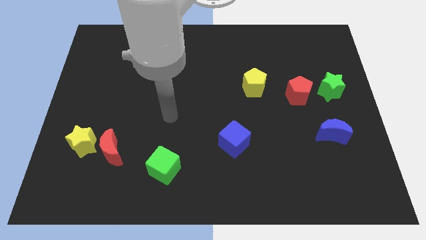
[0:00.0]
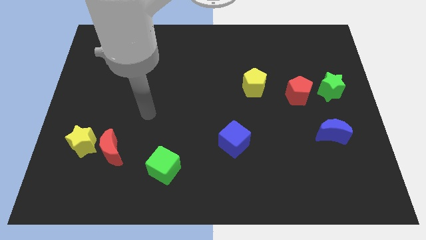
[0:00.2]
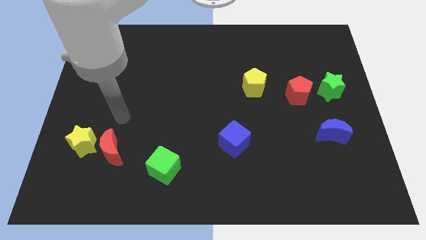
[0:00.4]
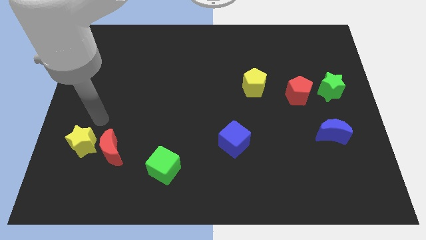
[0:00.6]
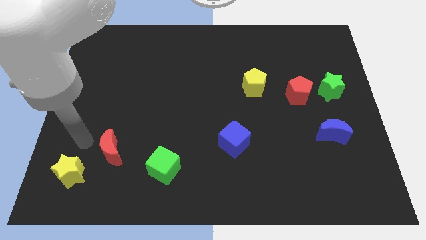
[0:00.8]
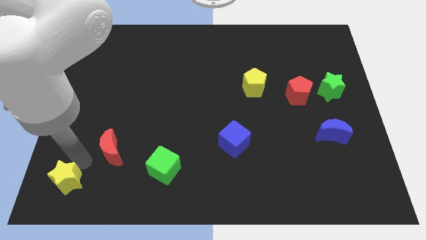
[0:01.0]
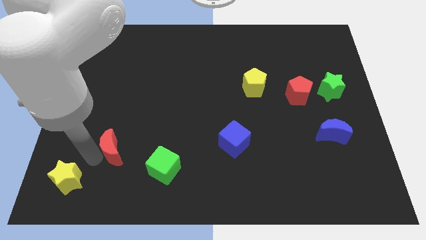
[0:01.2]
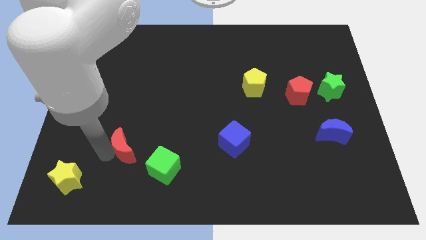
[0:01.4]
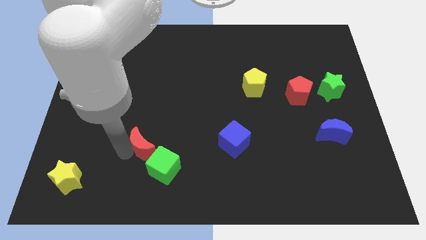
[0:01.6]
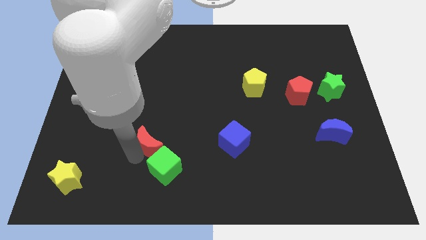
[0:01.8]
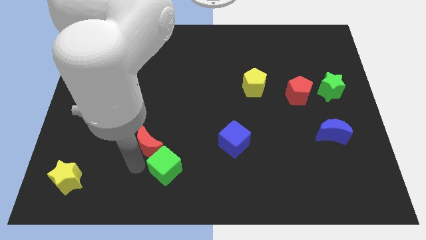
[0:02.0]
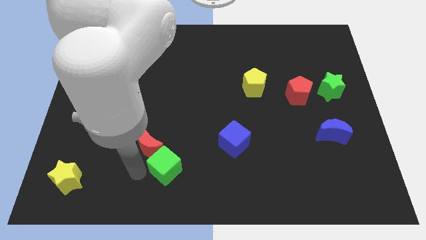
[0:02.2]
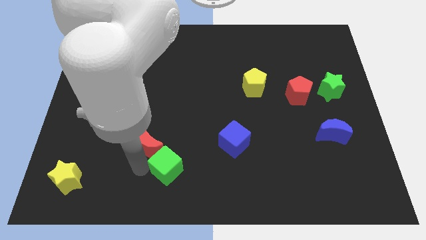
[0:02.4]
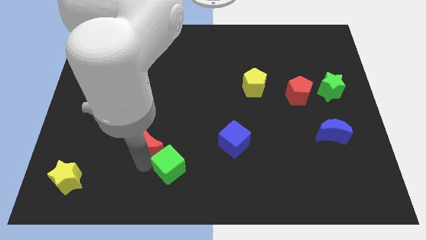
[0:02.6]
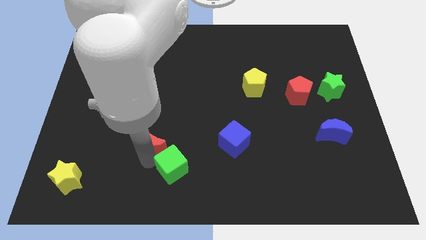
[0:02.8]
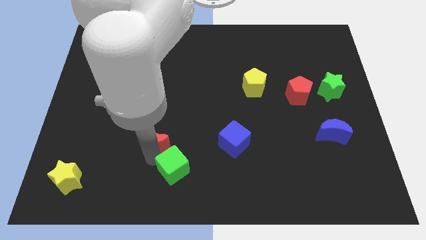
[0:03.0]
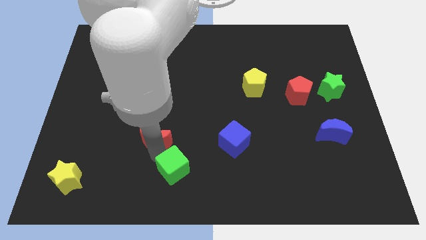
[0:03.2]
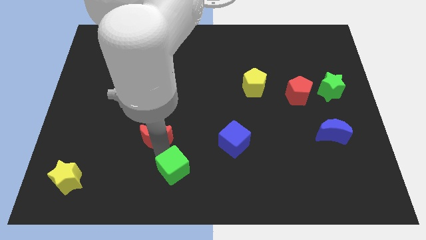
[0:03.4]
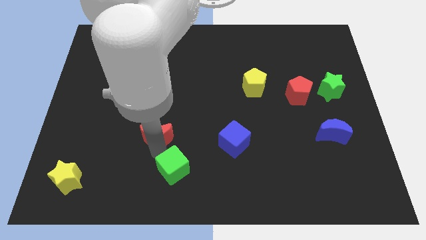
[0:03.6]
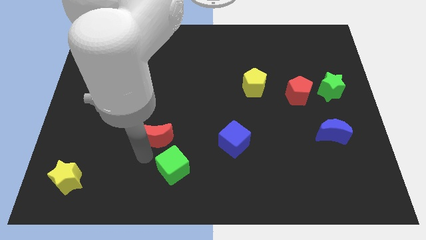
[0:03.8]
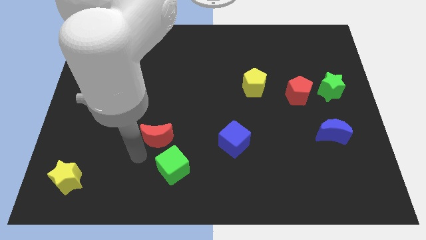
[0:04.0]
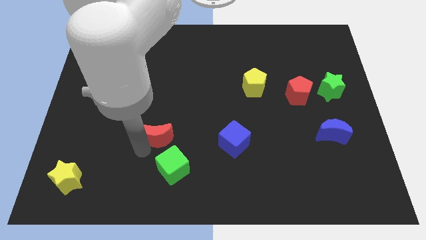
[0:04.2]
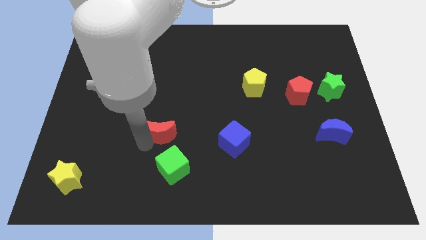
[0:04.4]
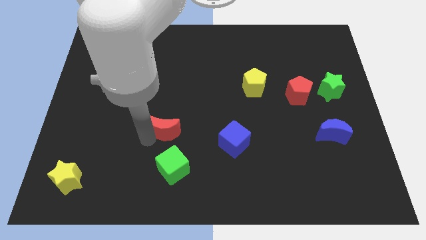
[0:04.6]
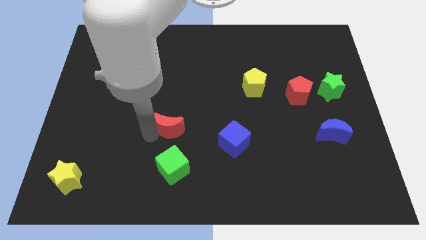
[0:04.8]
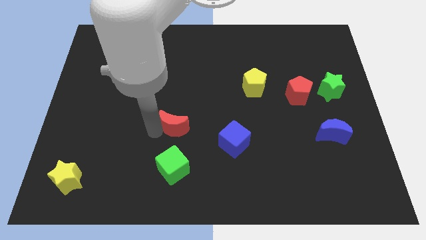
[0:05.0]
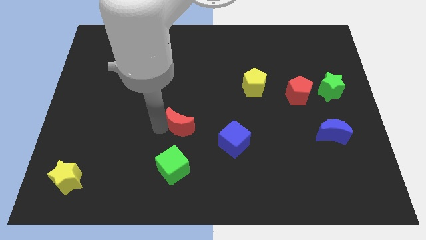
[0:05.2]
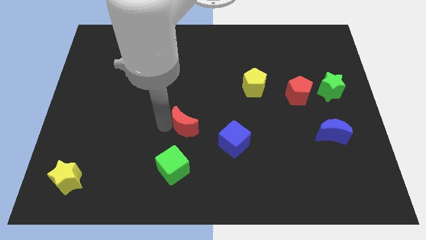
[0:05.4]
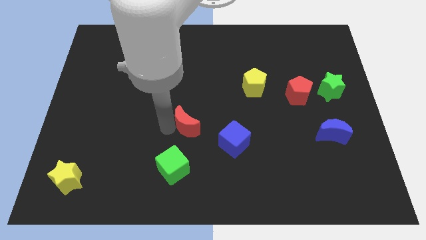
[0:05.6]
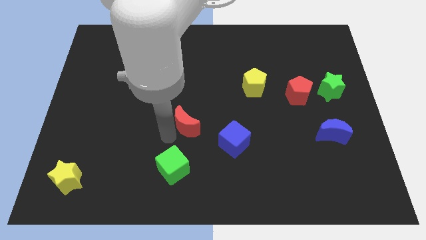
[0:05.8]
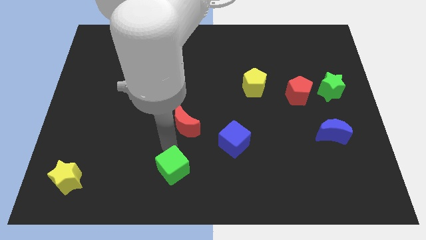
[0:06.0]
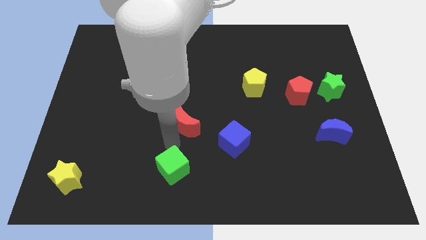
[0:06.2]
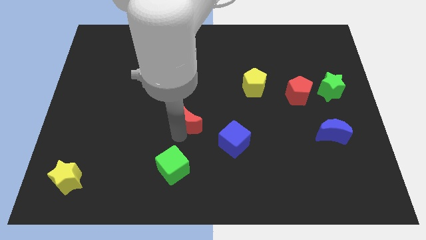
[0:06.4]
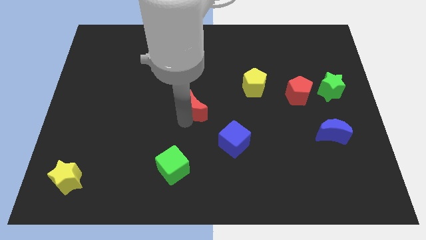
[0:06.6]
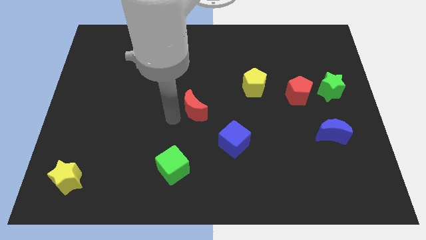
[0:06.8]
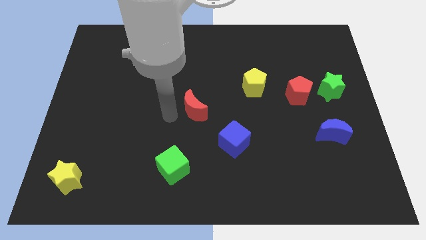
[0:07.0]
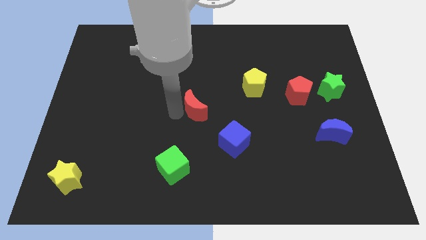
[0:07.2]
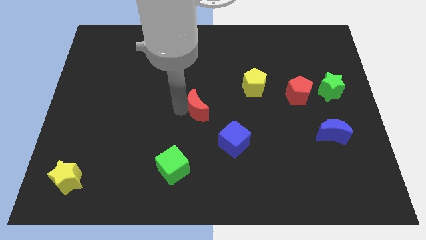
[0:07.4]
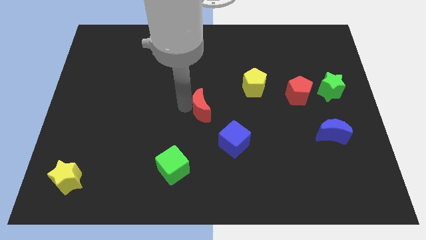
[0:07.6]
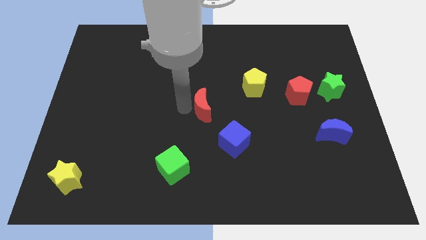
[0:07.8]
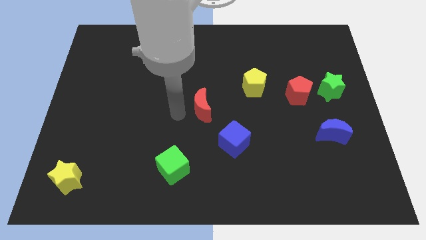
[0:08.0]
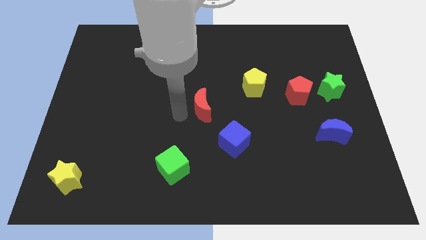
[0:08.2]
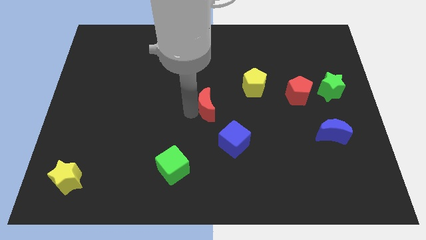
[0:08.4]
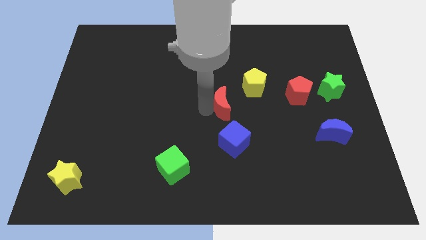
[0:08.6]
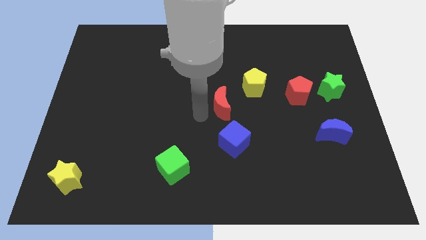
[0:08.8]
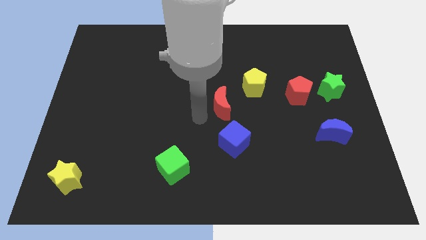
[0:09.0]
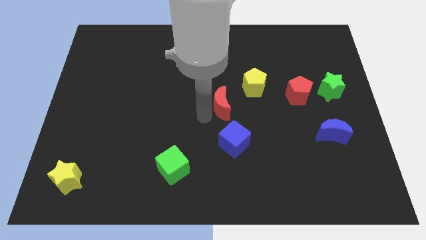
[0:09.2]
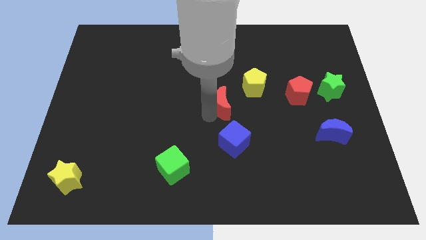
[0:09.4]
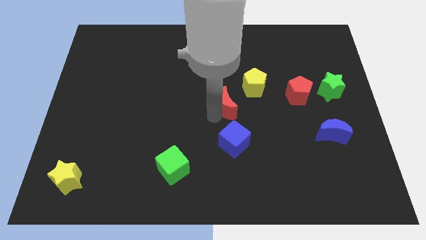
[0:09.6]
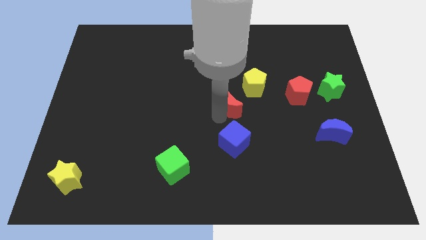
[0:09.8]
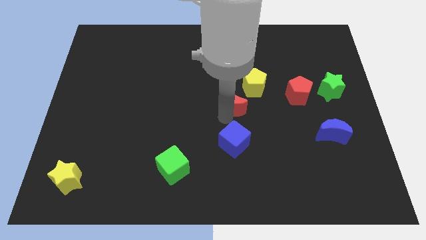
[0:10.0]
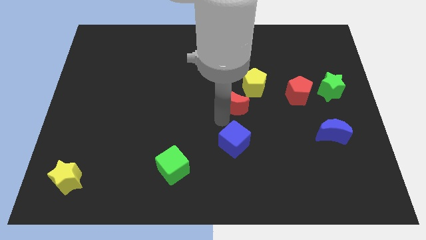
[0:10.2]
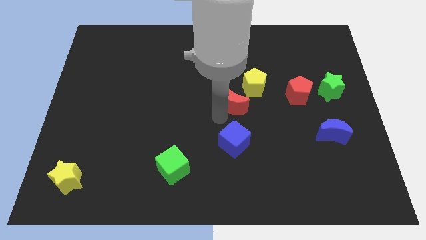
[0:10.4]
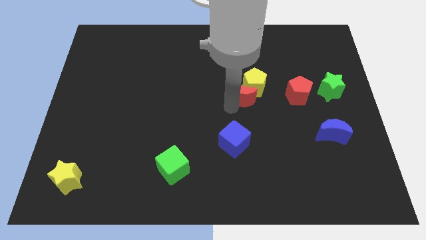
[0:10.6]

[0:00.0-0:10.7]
put the red moon close to the yellow pentagon

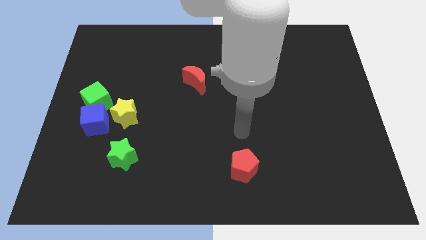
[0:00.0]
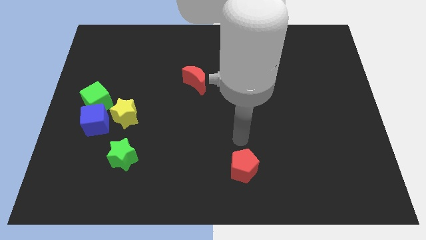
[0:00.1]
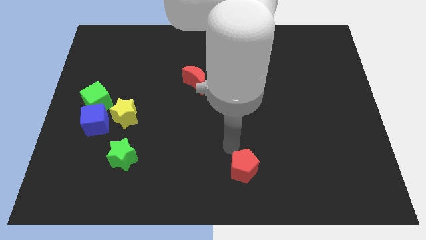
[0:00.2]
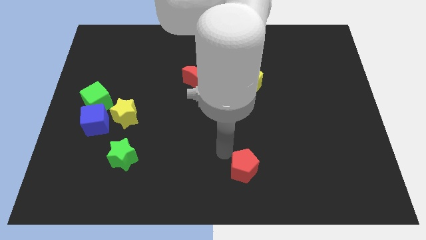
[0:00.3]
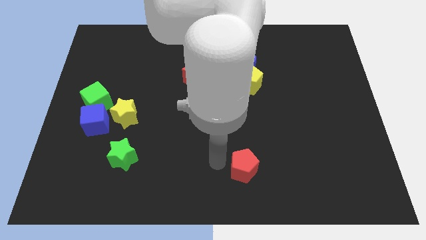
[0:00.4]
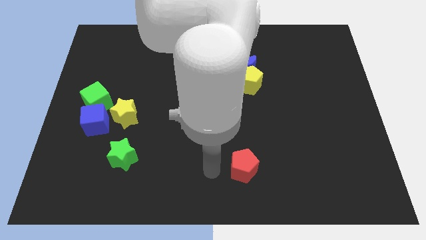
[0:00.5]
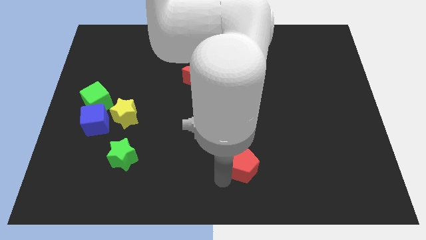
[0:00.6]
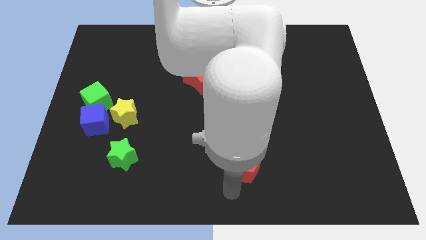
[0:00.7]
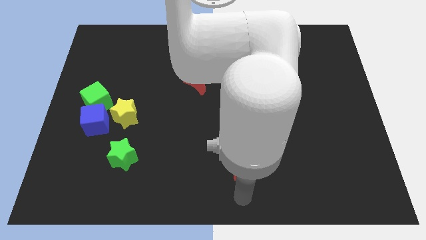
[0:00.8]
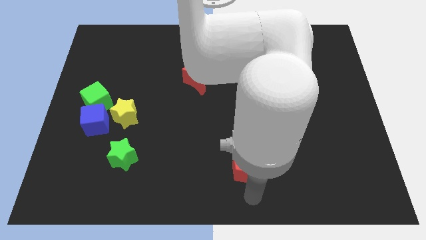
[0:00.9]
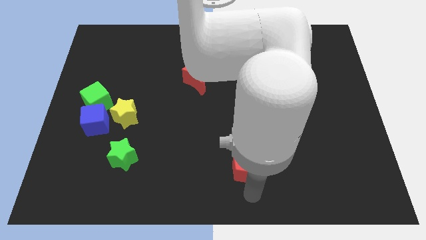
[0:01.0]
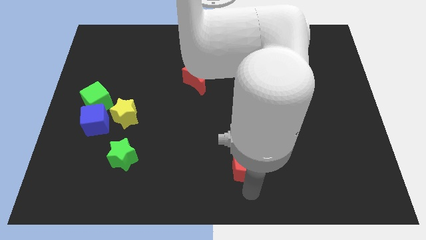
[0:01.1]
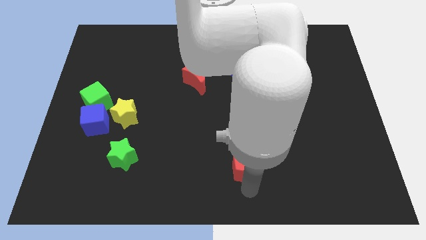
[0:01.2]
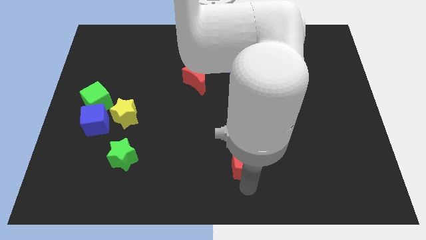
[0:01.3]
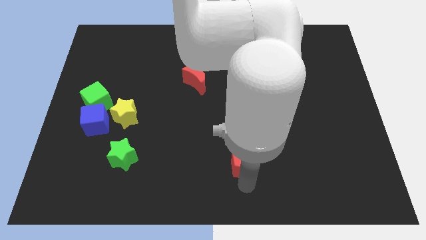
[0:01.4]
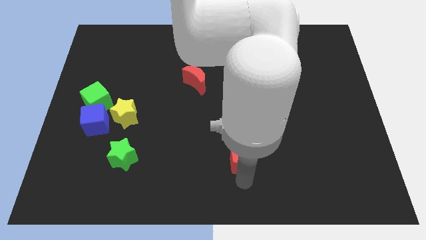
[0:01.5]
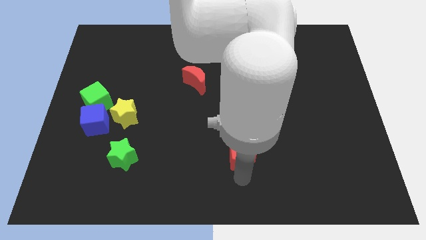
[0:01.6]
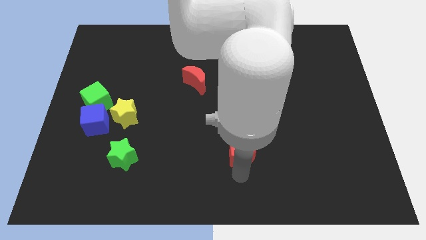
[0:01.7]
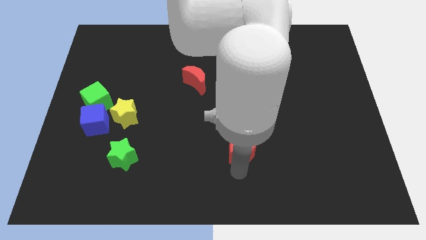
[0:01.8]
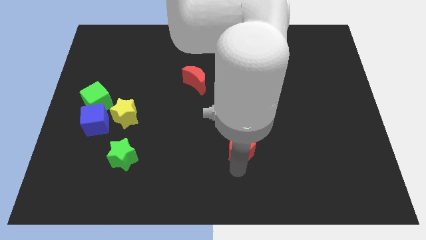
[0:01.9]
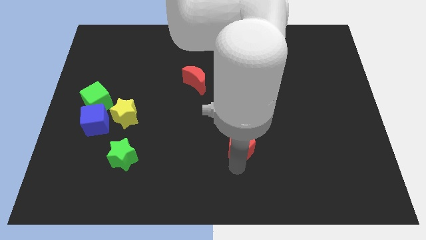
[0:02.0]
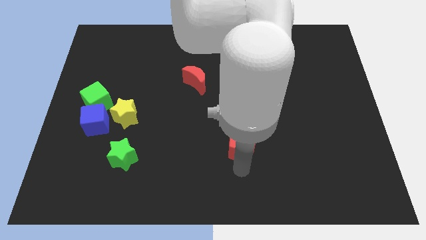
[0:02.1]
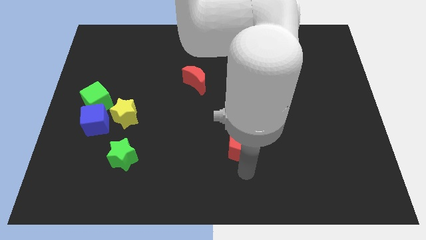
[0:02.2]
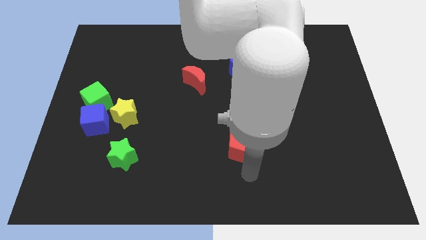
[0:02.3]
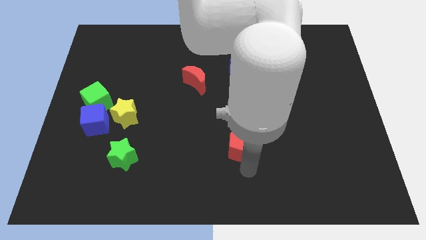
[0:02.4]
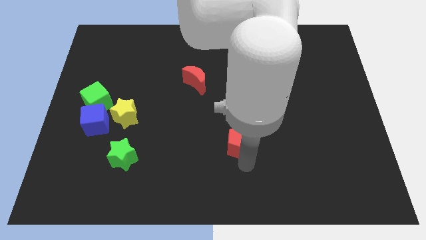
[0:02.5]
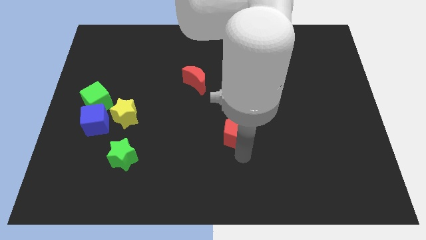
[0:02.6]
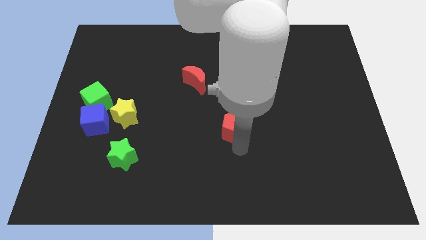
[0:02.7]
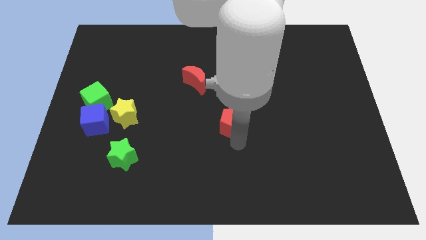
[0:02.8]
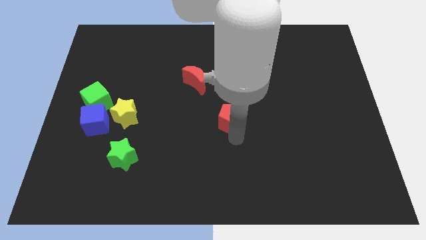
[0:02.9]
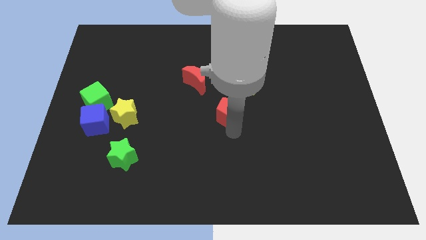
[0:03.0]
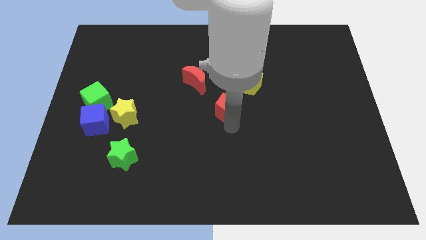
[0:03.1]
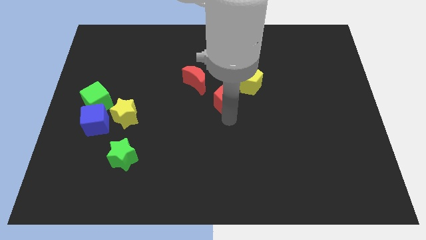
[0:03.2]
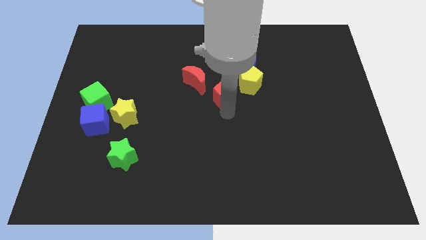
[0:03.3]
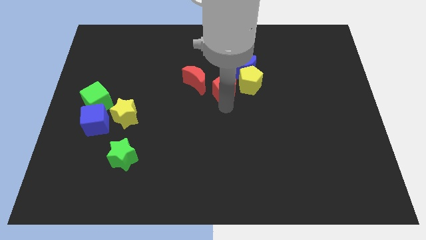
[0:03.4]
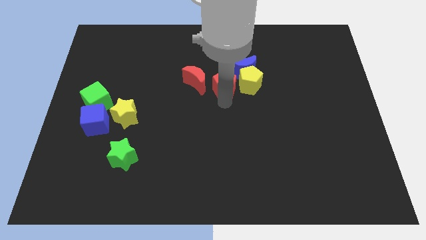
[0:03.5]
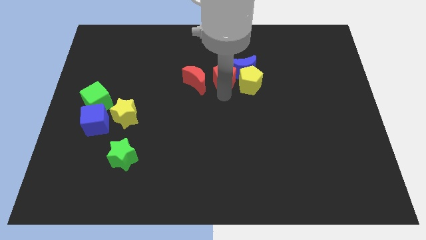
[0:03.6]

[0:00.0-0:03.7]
move the red pentagon to the blue moon
